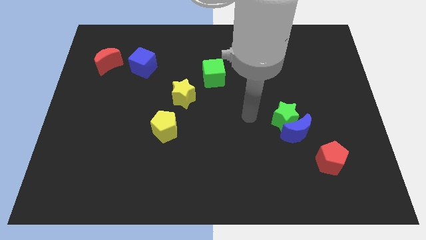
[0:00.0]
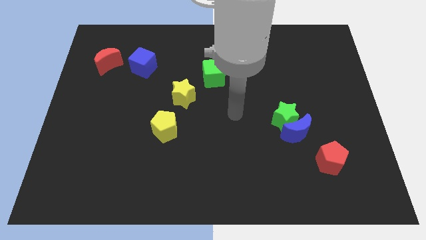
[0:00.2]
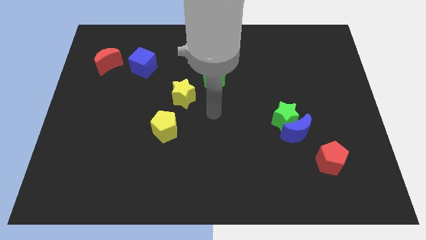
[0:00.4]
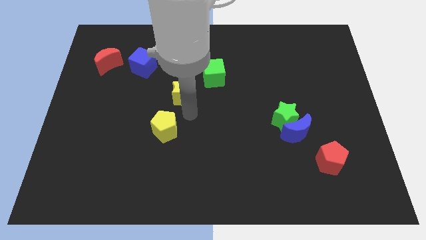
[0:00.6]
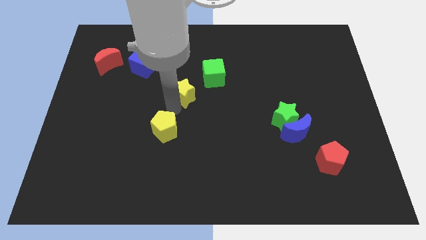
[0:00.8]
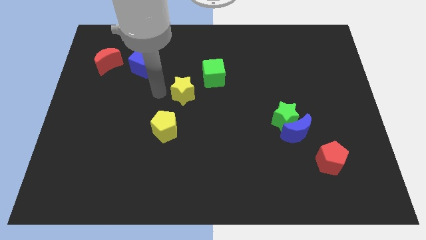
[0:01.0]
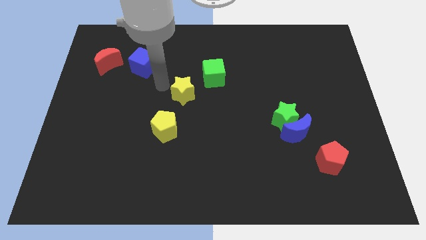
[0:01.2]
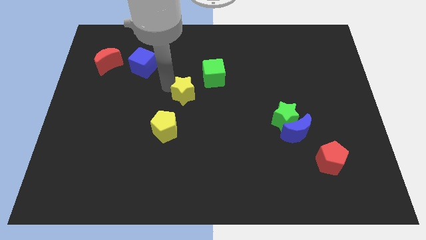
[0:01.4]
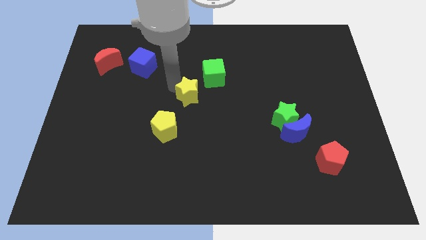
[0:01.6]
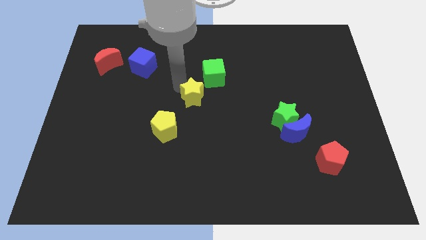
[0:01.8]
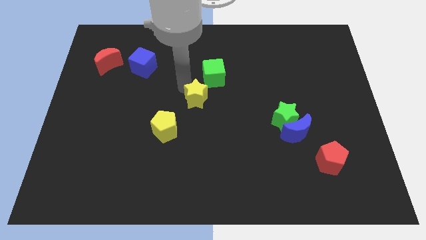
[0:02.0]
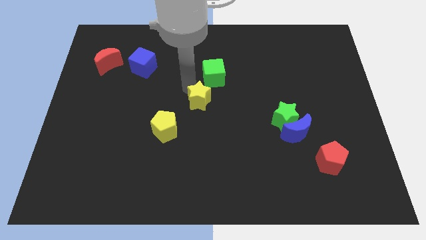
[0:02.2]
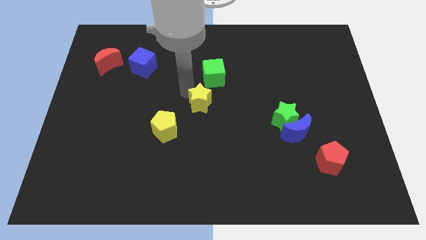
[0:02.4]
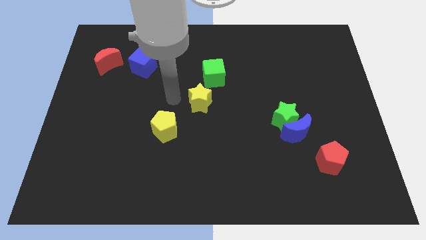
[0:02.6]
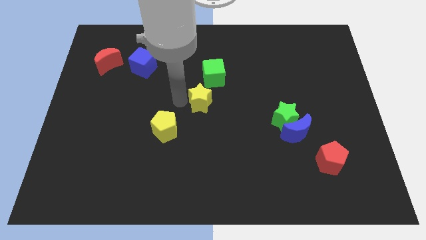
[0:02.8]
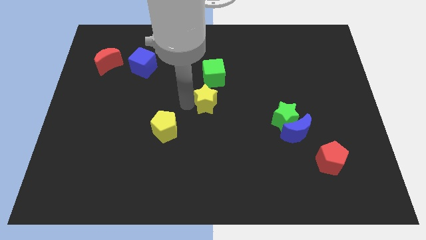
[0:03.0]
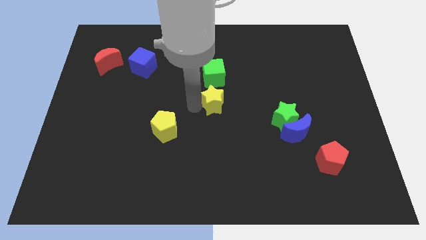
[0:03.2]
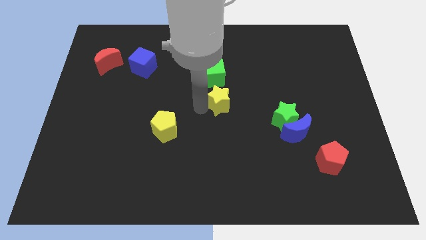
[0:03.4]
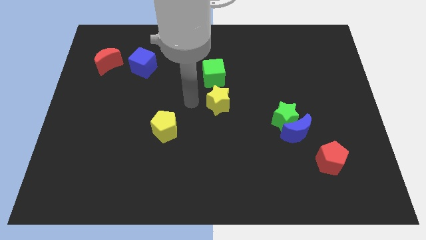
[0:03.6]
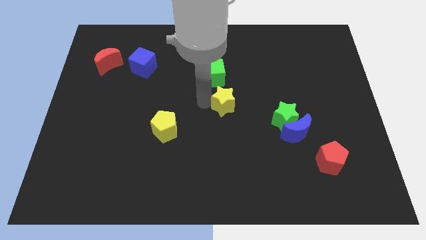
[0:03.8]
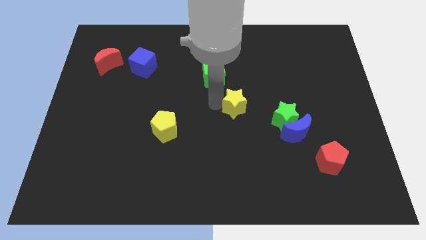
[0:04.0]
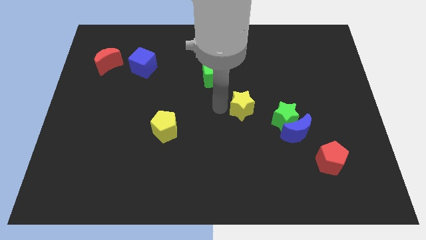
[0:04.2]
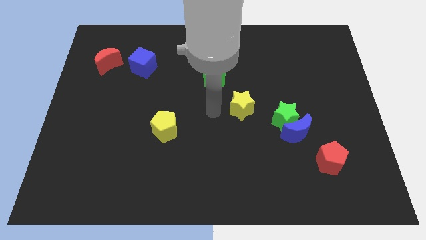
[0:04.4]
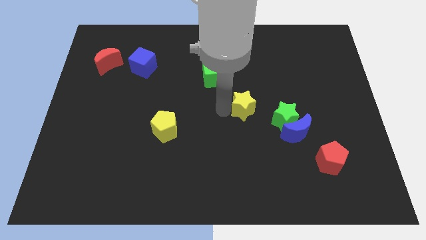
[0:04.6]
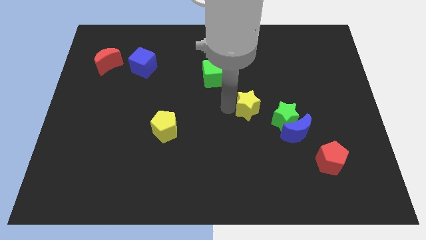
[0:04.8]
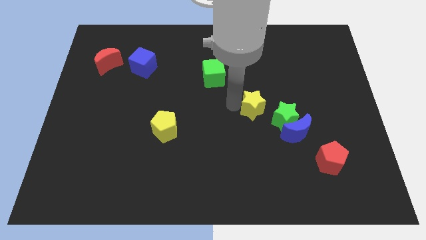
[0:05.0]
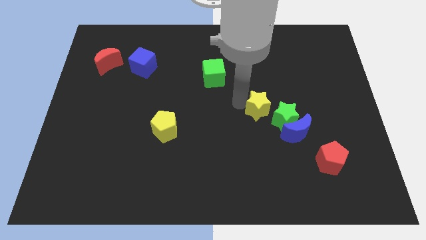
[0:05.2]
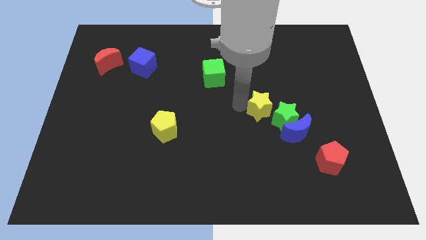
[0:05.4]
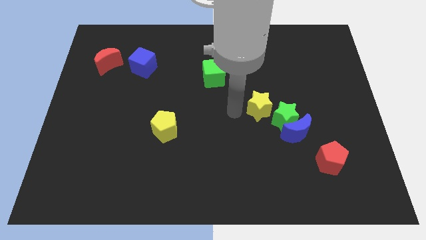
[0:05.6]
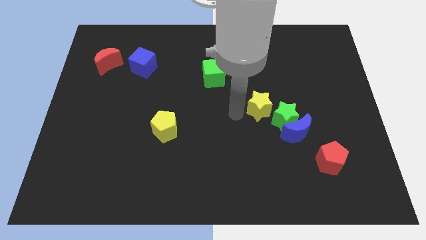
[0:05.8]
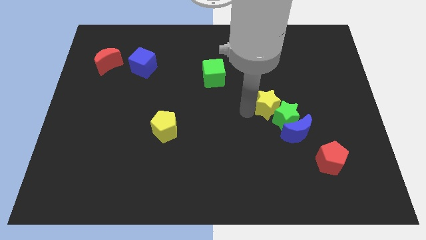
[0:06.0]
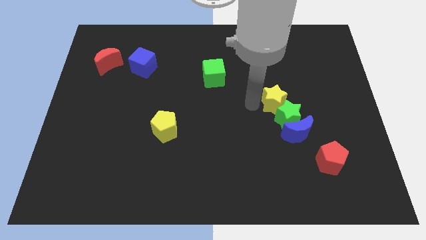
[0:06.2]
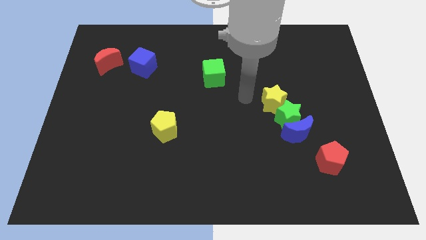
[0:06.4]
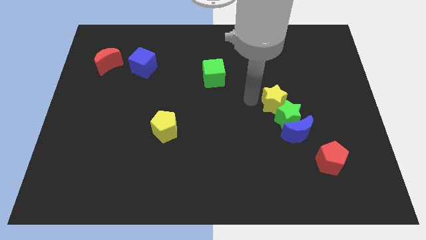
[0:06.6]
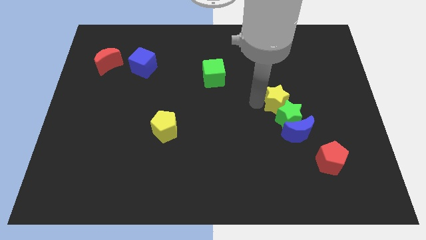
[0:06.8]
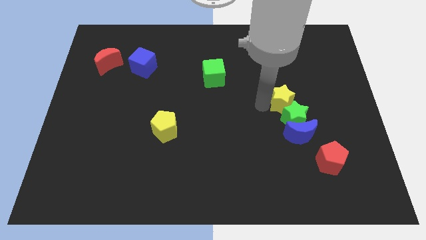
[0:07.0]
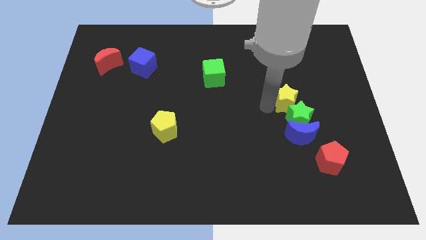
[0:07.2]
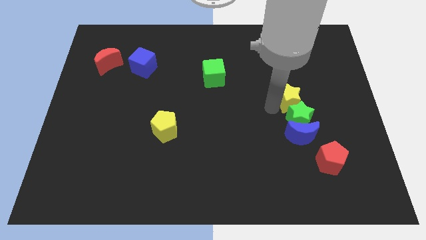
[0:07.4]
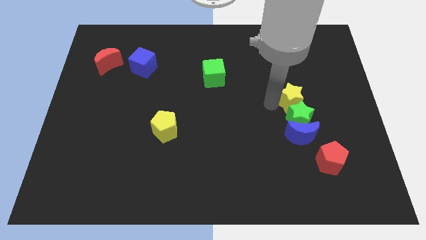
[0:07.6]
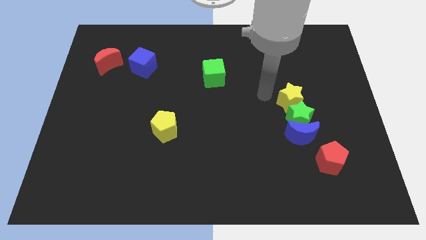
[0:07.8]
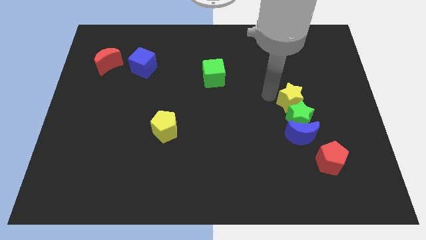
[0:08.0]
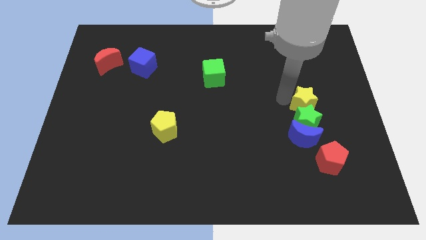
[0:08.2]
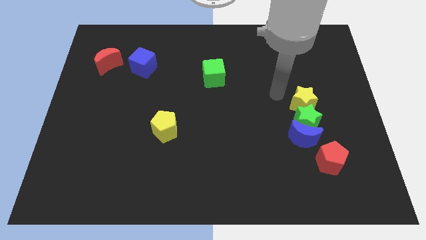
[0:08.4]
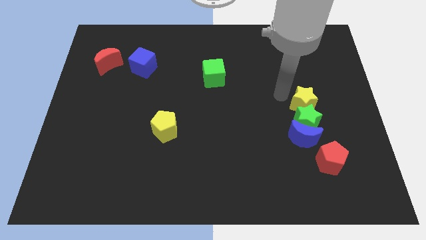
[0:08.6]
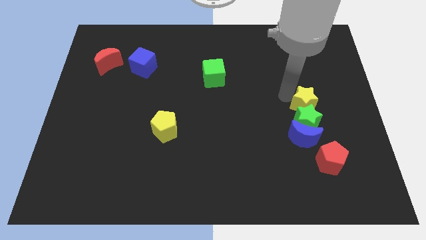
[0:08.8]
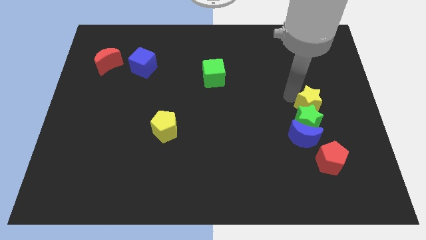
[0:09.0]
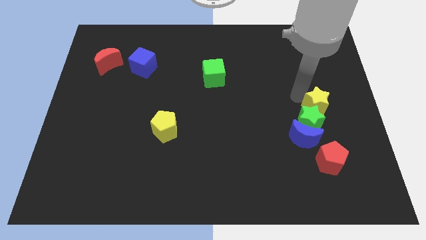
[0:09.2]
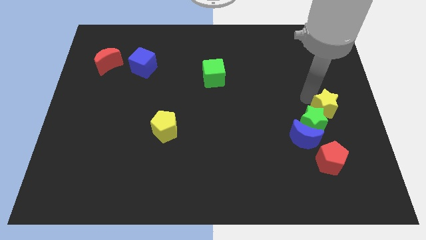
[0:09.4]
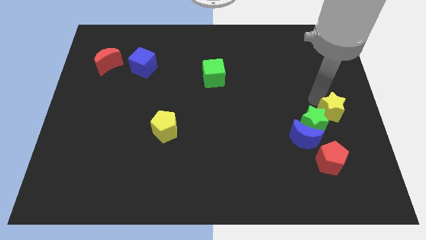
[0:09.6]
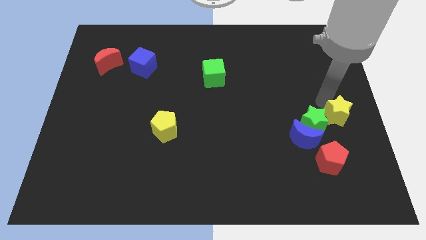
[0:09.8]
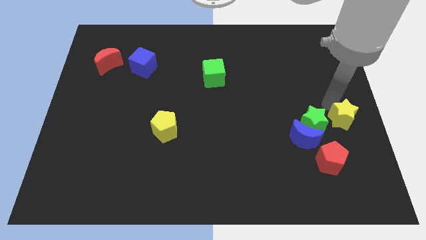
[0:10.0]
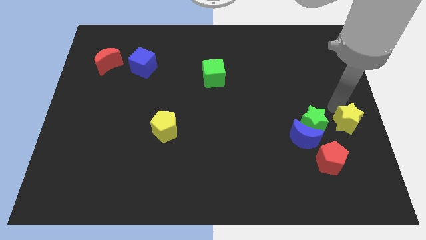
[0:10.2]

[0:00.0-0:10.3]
put the yellow star to the right side of the blue moon

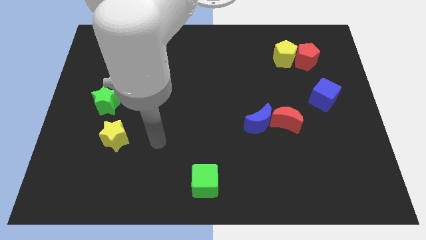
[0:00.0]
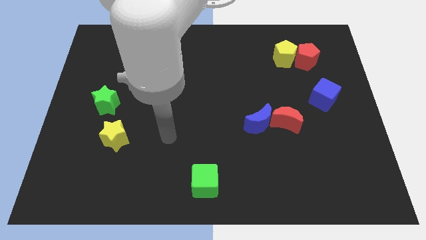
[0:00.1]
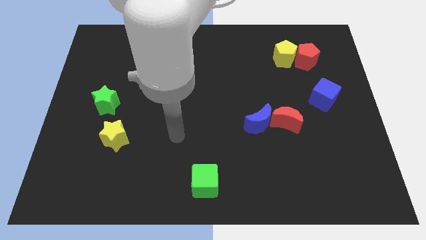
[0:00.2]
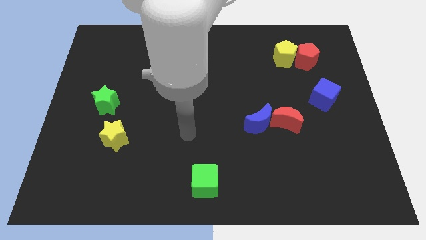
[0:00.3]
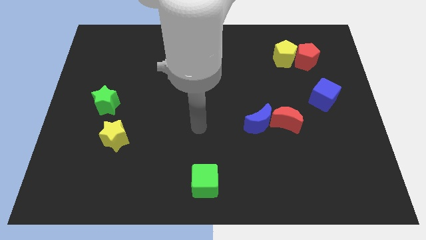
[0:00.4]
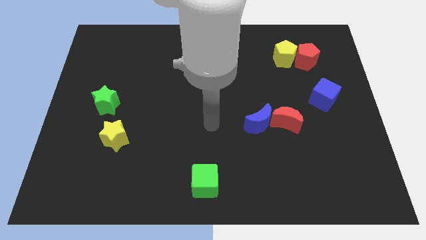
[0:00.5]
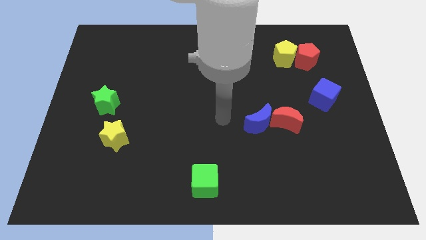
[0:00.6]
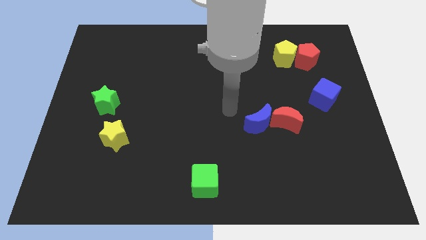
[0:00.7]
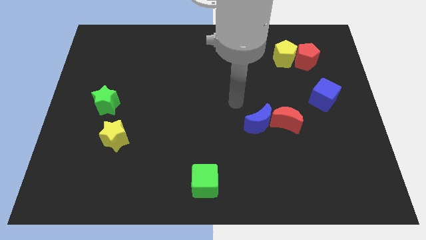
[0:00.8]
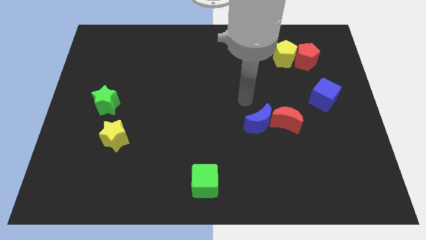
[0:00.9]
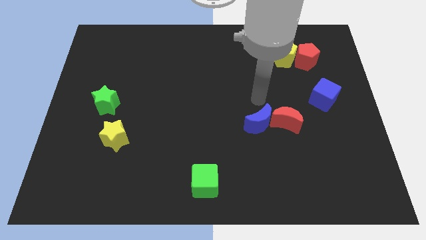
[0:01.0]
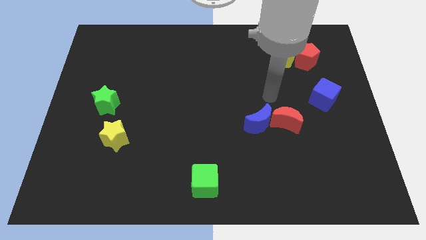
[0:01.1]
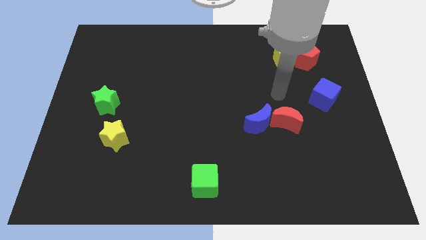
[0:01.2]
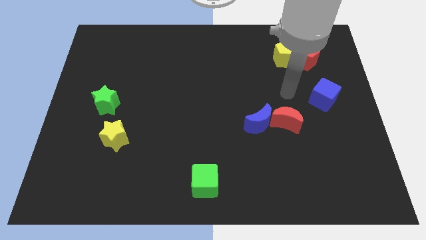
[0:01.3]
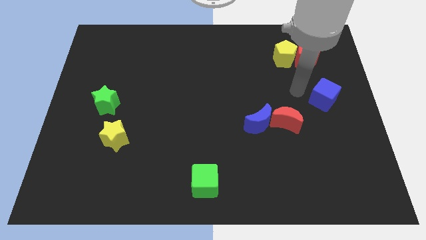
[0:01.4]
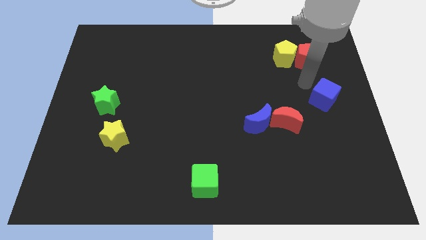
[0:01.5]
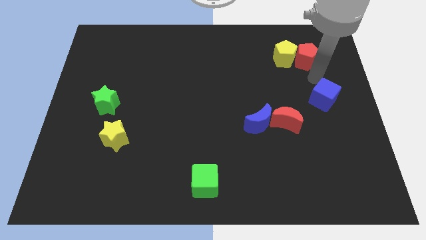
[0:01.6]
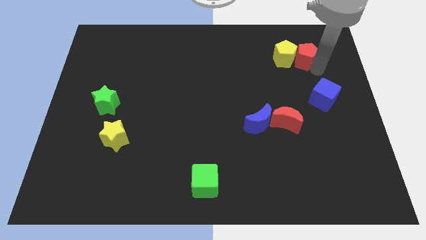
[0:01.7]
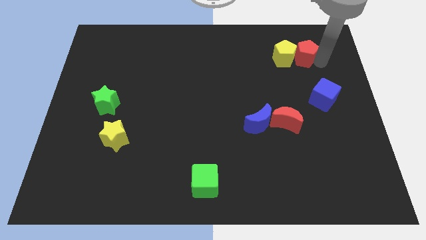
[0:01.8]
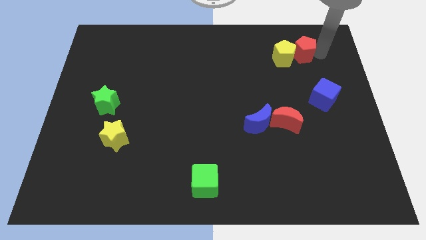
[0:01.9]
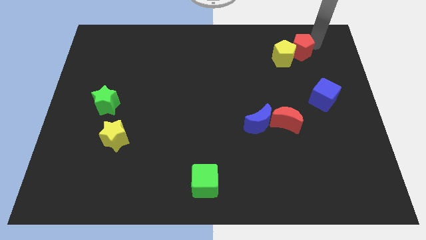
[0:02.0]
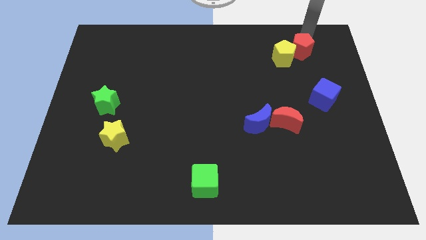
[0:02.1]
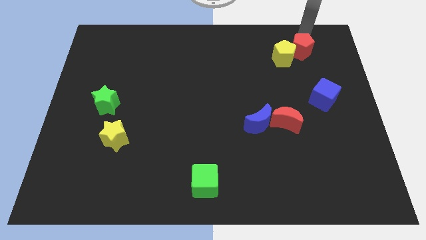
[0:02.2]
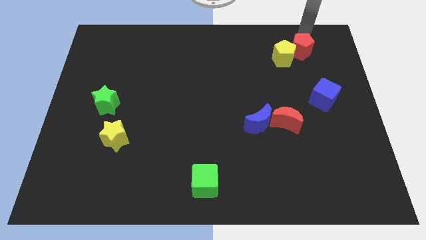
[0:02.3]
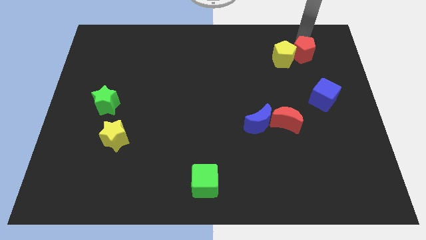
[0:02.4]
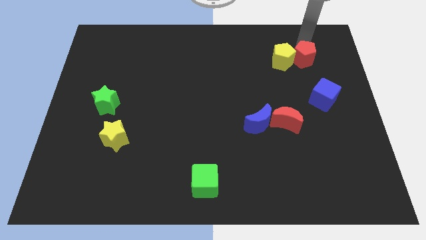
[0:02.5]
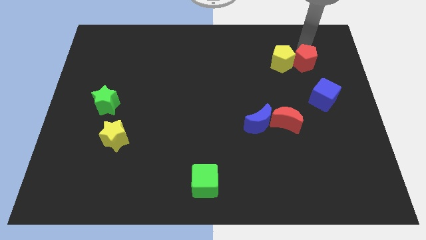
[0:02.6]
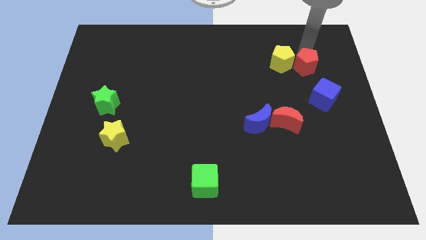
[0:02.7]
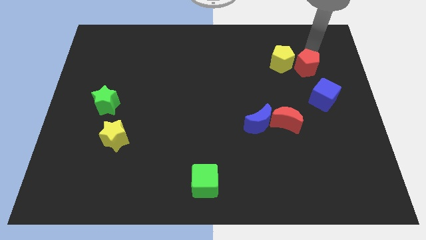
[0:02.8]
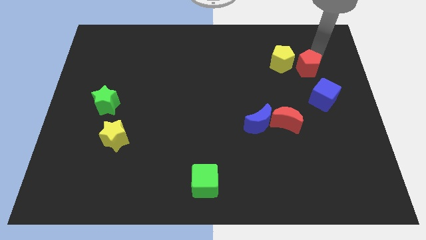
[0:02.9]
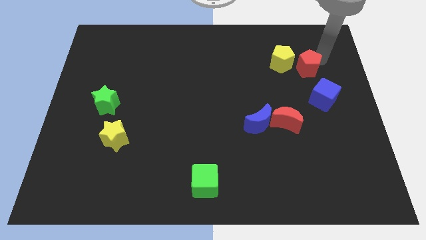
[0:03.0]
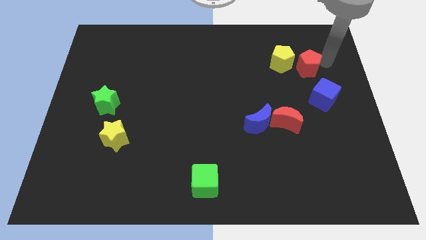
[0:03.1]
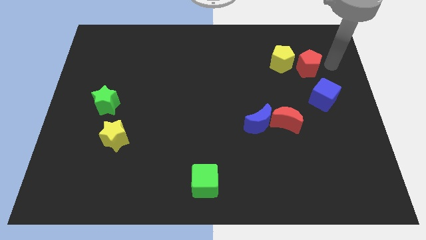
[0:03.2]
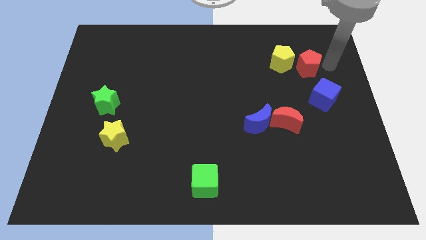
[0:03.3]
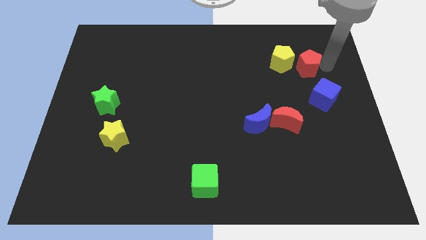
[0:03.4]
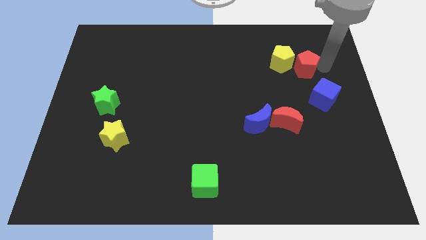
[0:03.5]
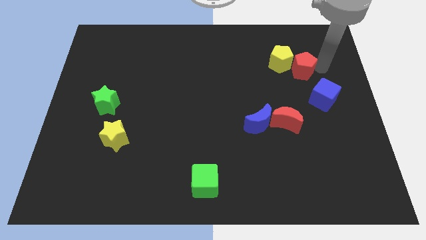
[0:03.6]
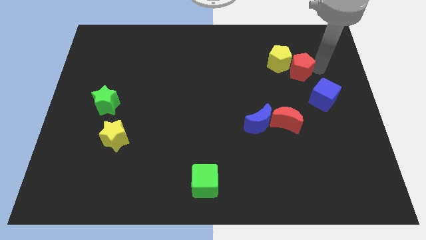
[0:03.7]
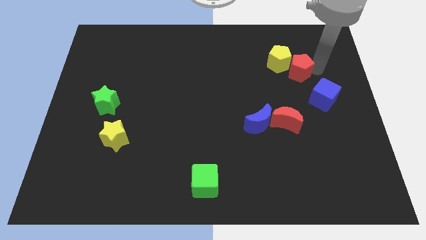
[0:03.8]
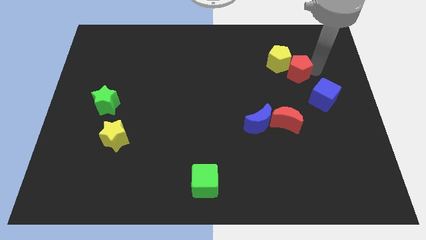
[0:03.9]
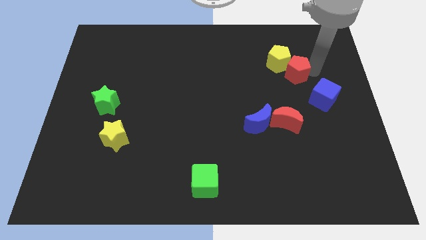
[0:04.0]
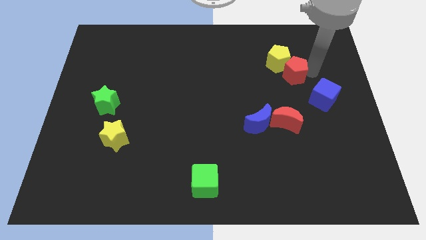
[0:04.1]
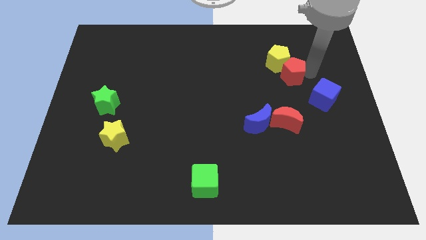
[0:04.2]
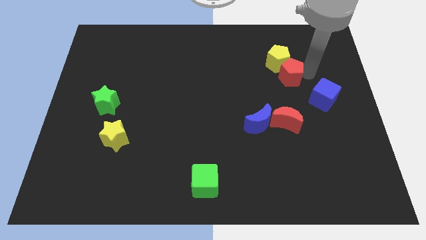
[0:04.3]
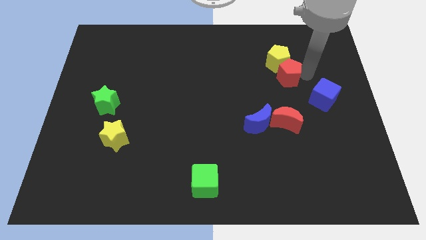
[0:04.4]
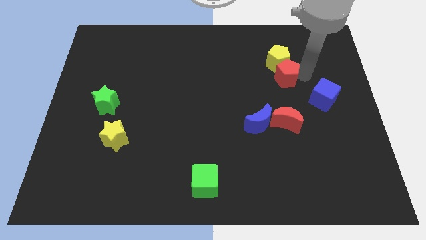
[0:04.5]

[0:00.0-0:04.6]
push the red pentagon to the bottom left side of the yellow pentagon
